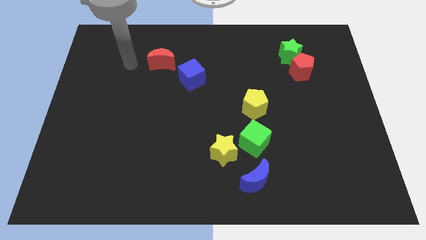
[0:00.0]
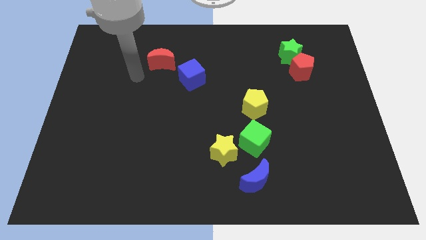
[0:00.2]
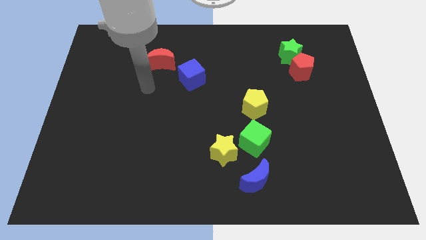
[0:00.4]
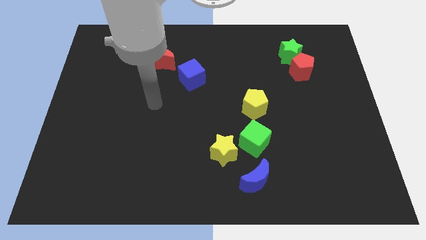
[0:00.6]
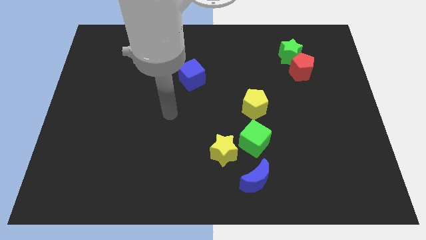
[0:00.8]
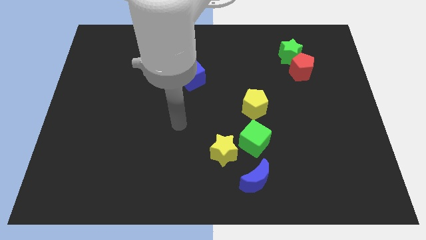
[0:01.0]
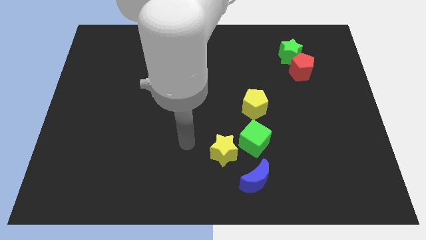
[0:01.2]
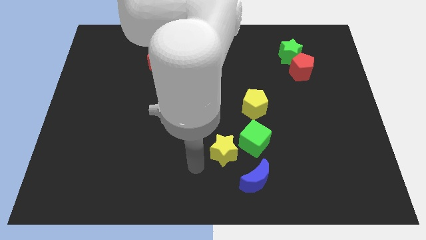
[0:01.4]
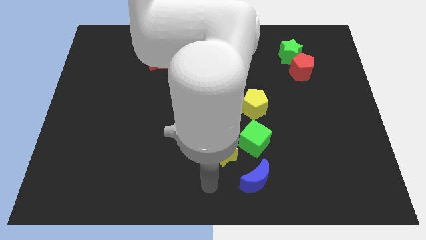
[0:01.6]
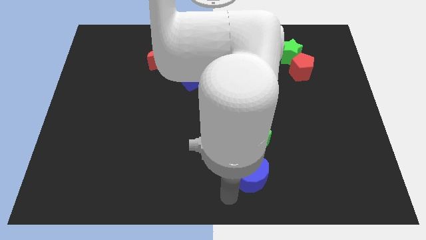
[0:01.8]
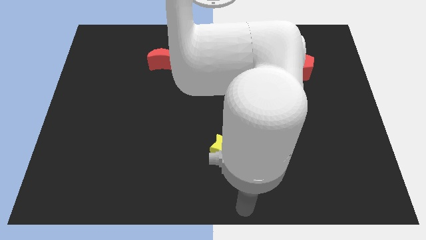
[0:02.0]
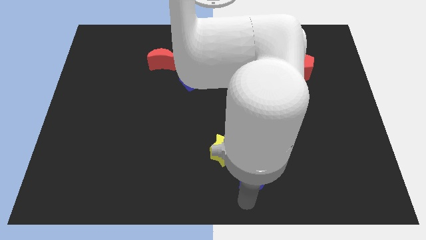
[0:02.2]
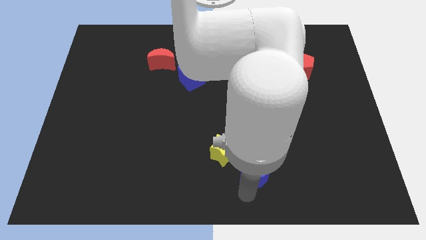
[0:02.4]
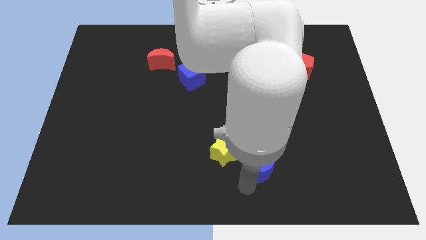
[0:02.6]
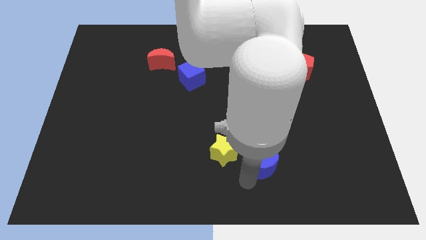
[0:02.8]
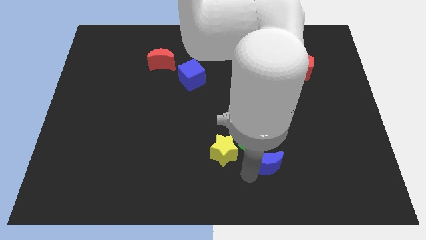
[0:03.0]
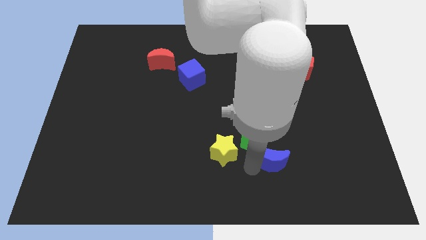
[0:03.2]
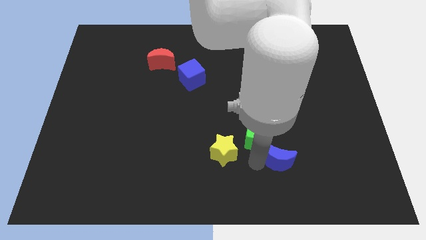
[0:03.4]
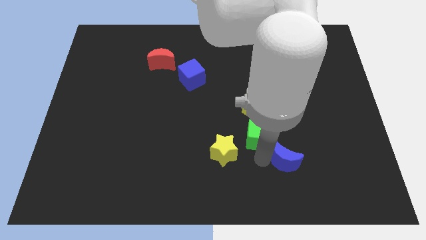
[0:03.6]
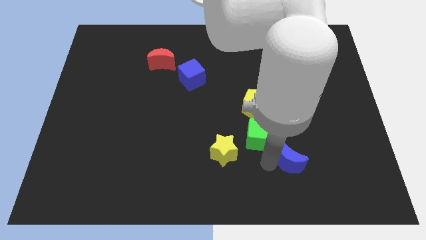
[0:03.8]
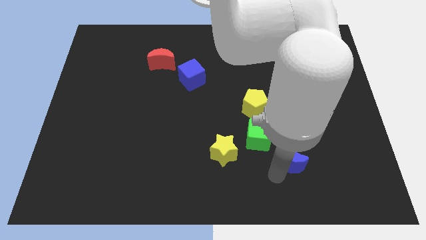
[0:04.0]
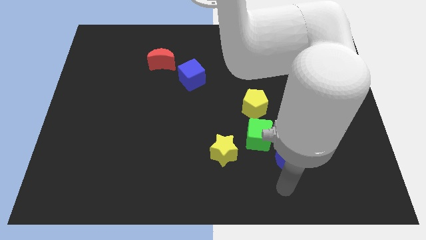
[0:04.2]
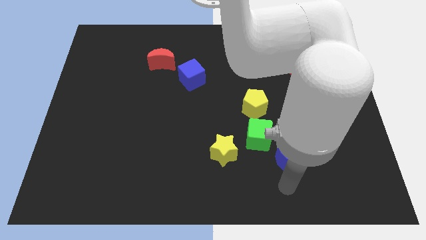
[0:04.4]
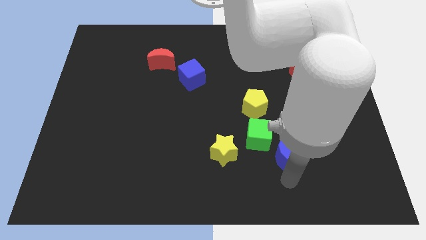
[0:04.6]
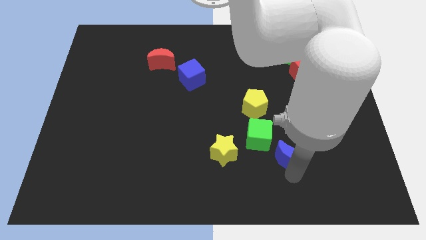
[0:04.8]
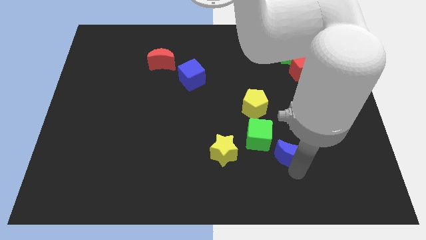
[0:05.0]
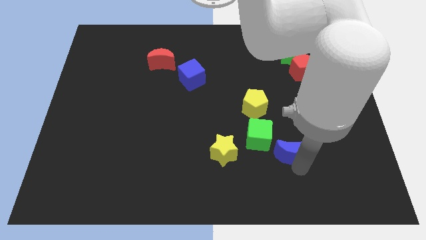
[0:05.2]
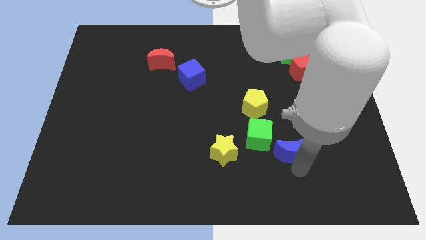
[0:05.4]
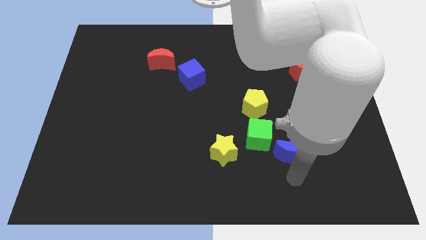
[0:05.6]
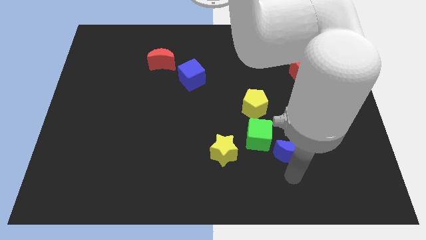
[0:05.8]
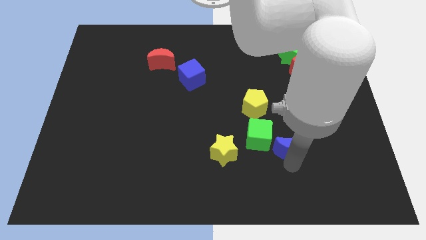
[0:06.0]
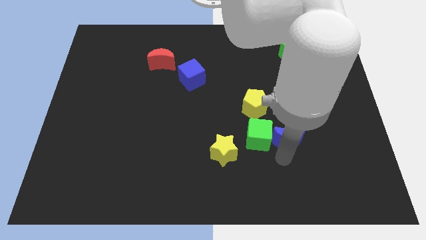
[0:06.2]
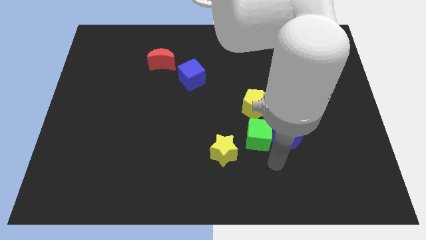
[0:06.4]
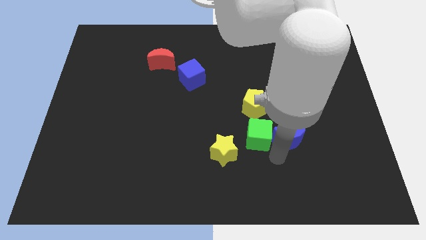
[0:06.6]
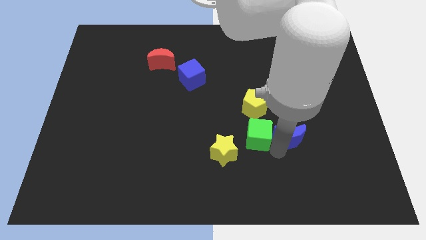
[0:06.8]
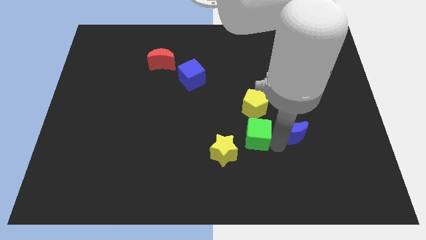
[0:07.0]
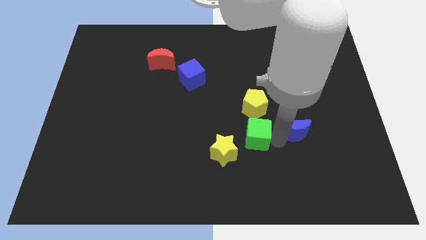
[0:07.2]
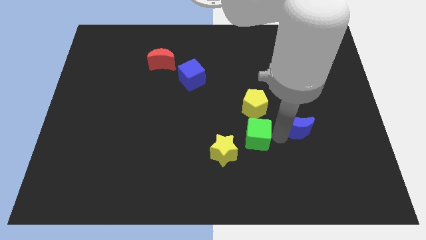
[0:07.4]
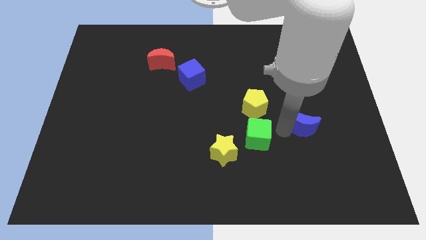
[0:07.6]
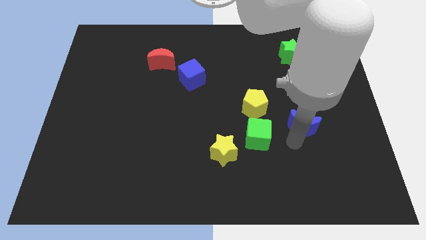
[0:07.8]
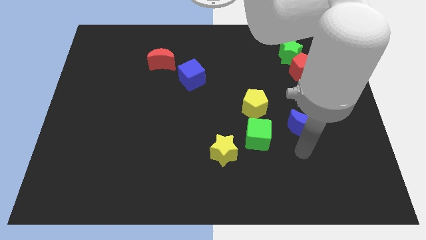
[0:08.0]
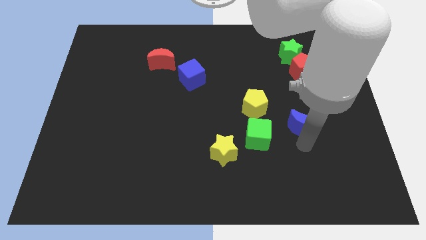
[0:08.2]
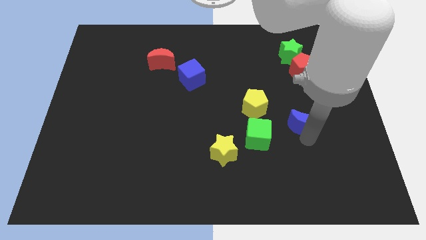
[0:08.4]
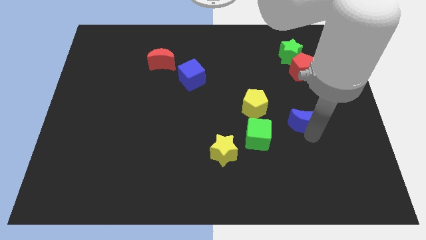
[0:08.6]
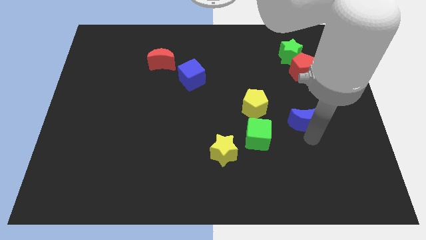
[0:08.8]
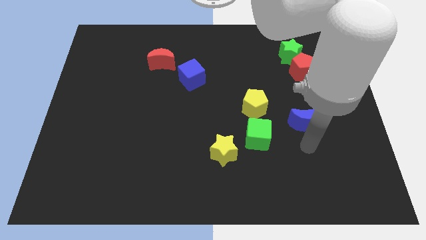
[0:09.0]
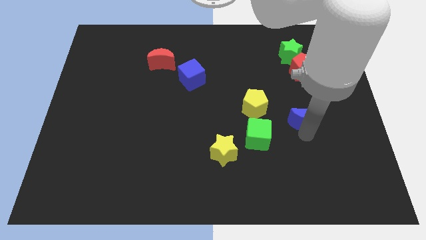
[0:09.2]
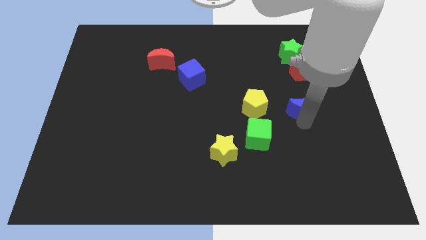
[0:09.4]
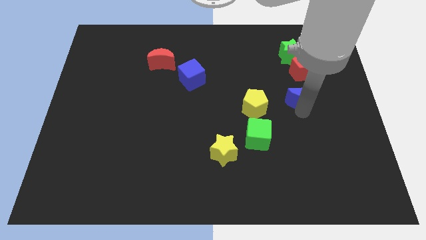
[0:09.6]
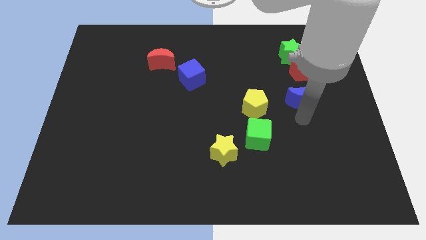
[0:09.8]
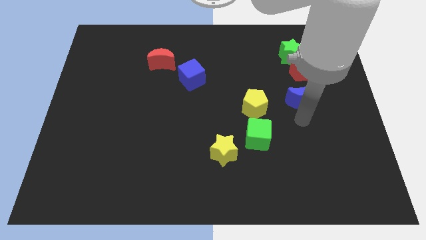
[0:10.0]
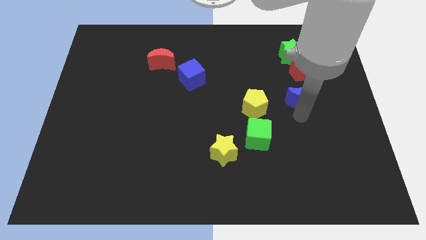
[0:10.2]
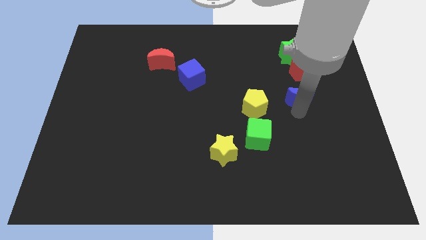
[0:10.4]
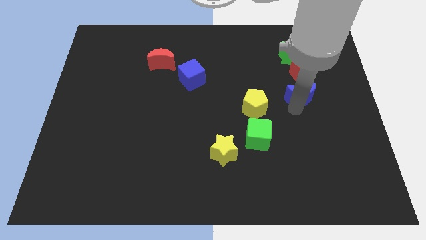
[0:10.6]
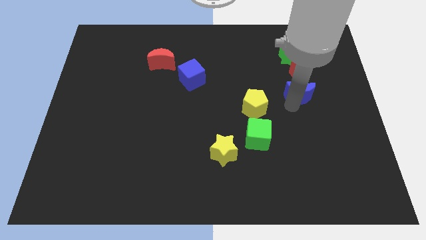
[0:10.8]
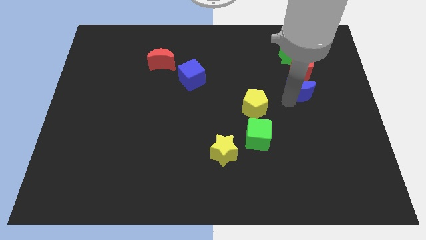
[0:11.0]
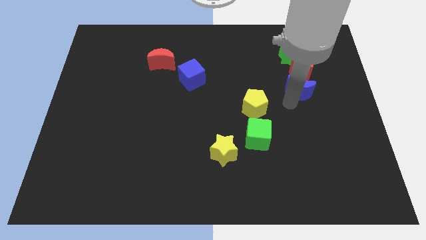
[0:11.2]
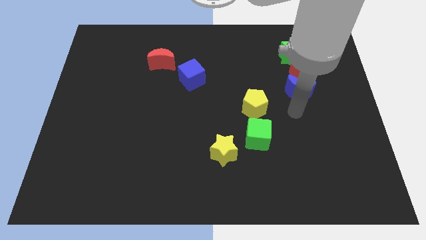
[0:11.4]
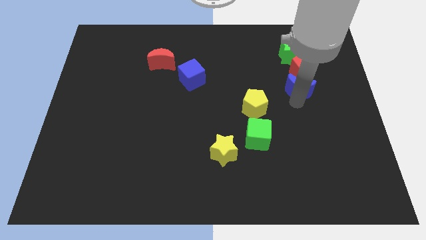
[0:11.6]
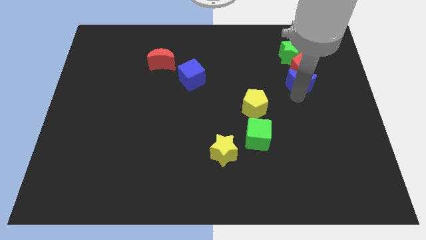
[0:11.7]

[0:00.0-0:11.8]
put the blue moon to the red pentagon

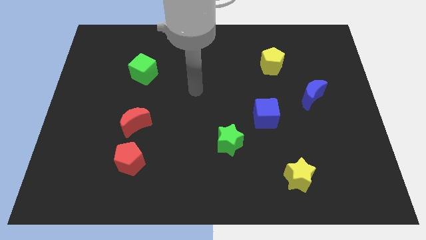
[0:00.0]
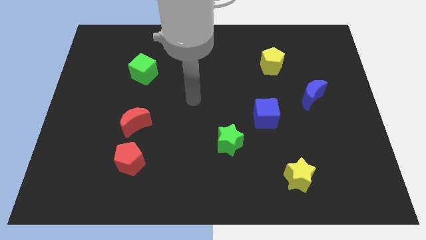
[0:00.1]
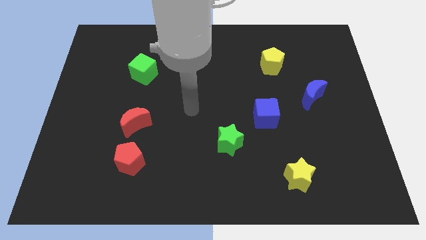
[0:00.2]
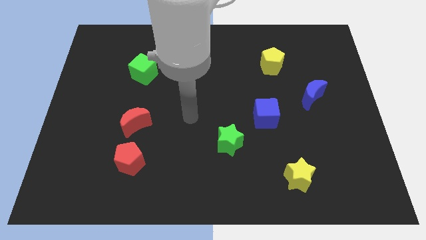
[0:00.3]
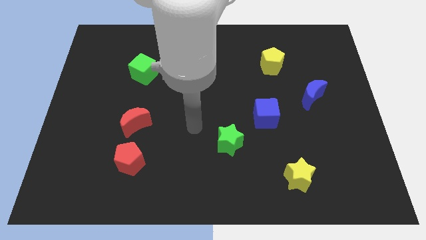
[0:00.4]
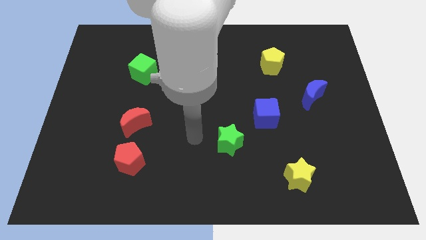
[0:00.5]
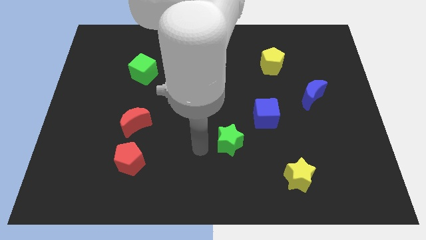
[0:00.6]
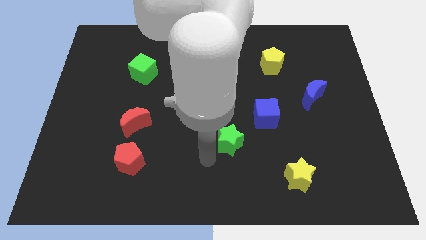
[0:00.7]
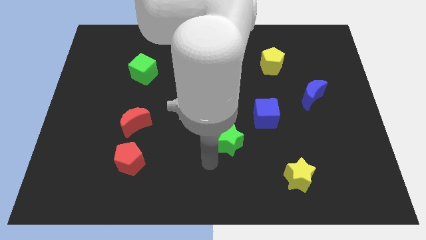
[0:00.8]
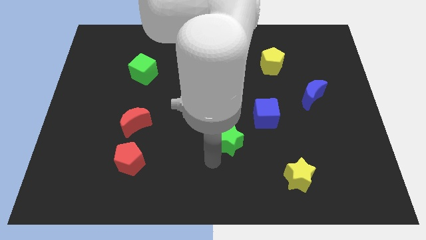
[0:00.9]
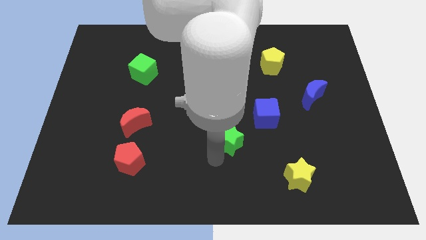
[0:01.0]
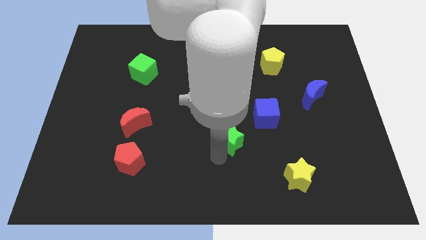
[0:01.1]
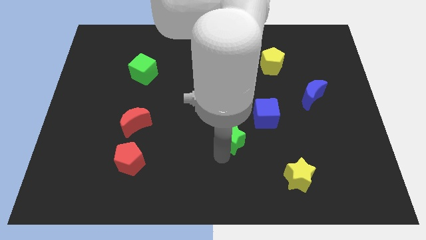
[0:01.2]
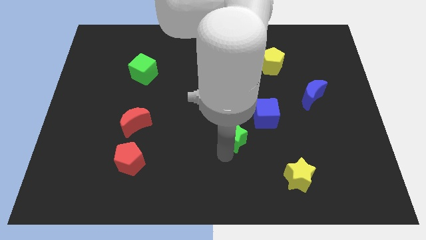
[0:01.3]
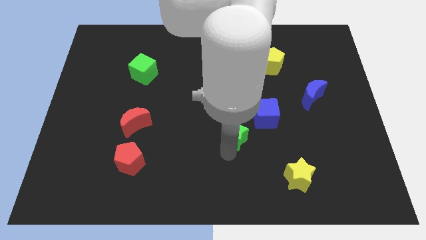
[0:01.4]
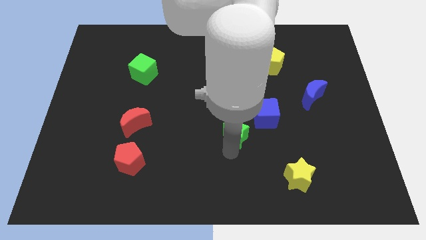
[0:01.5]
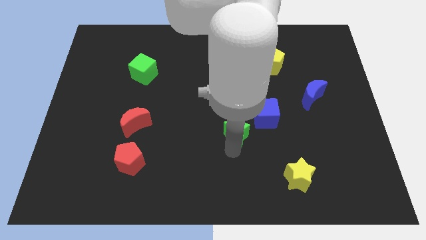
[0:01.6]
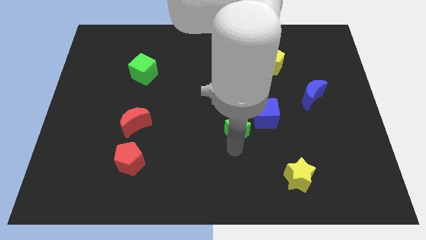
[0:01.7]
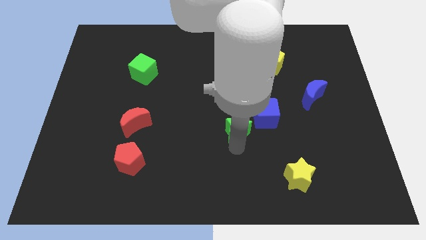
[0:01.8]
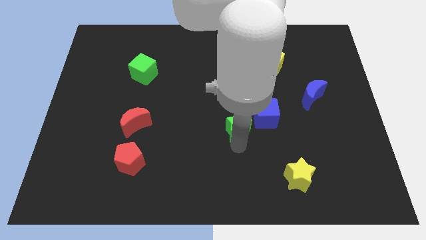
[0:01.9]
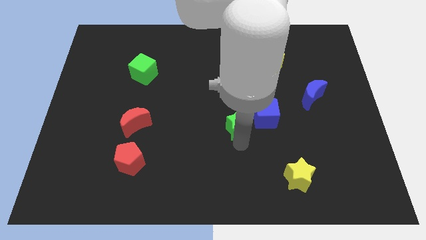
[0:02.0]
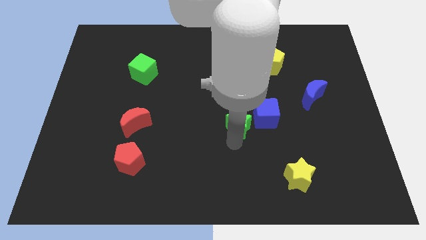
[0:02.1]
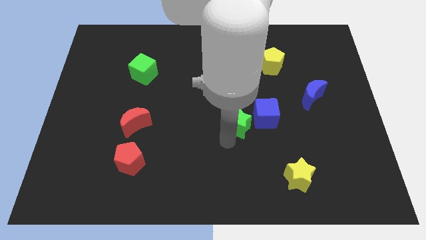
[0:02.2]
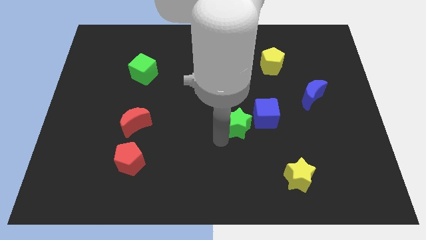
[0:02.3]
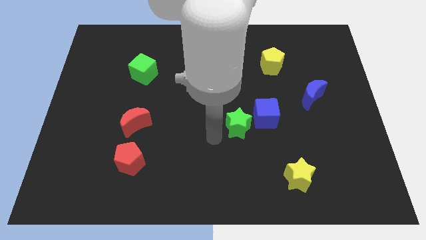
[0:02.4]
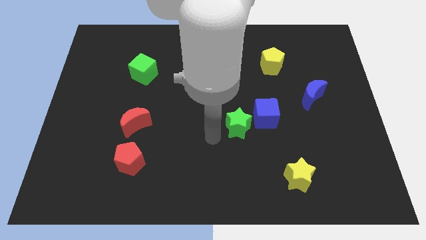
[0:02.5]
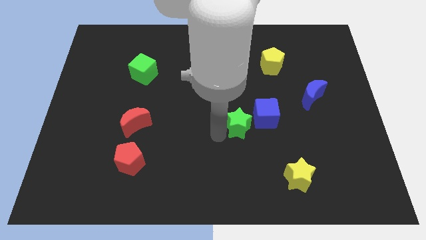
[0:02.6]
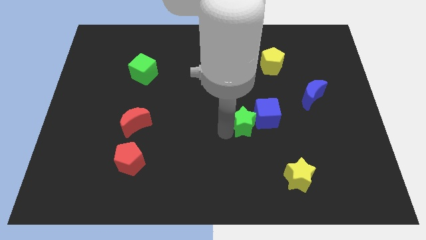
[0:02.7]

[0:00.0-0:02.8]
move the green star to the blue cube
